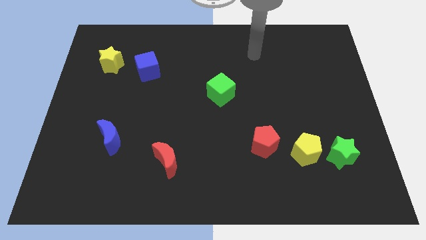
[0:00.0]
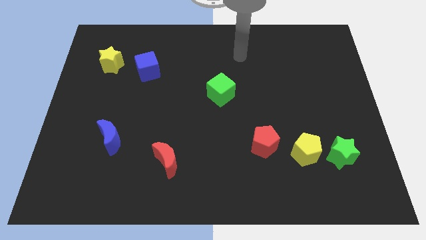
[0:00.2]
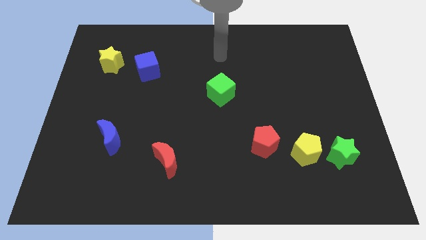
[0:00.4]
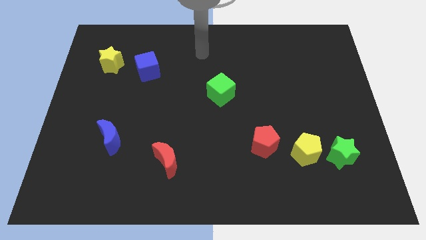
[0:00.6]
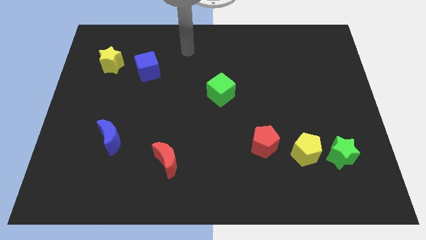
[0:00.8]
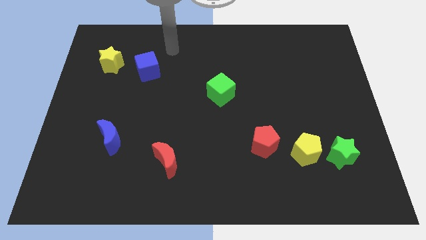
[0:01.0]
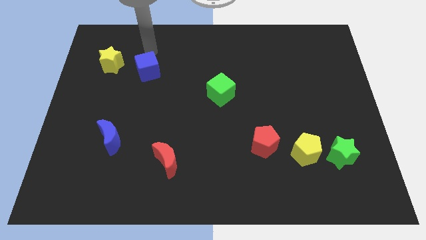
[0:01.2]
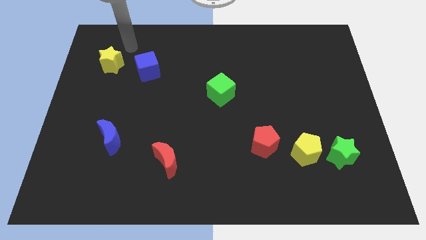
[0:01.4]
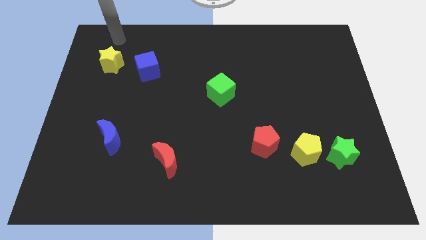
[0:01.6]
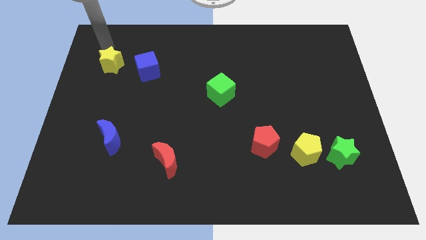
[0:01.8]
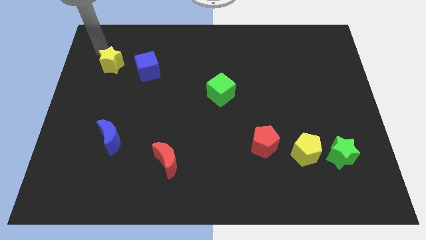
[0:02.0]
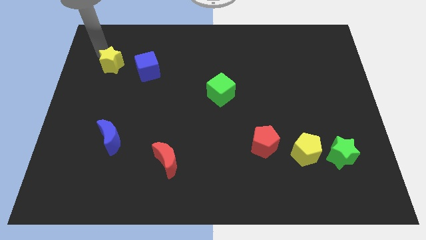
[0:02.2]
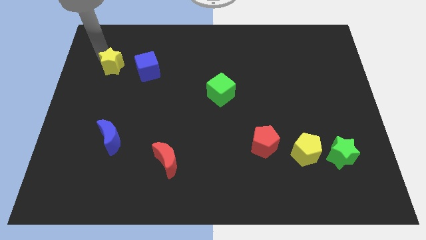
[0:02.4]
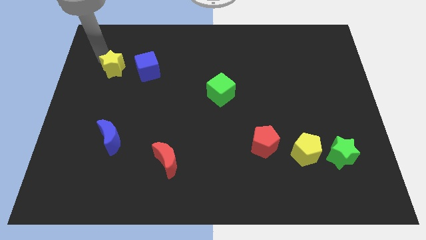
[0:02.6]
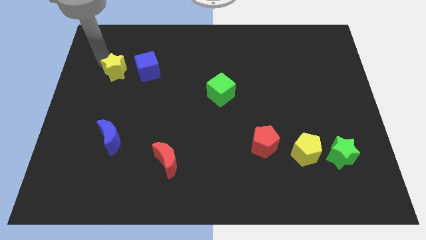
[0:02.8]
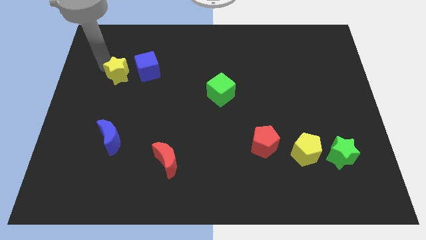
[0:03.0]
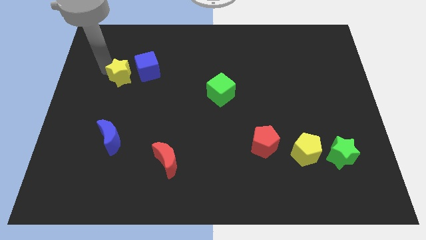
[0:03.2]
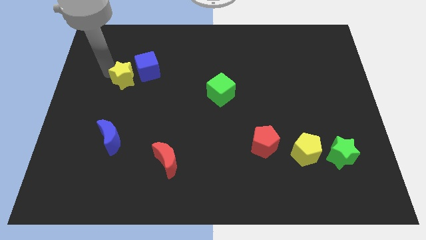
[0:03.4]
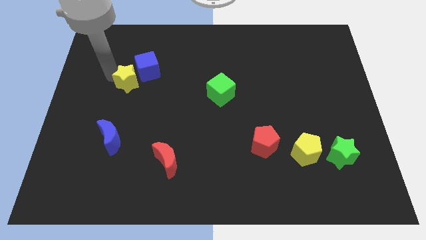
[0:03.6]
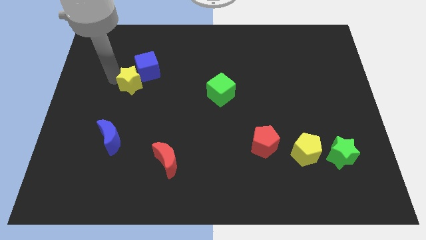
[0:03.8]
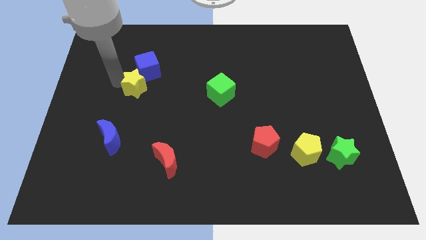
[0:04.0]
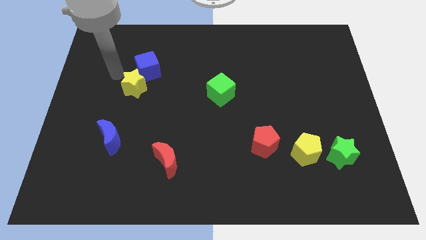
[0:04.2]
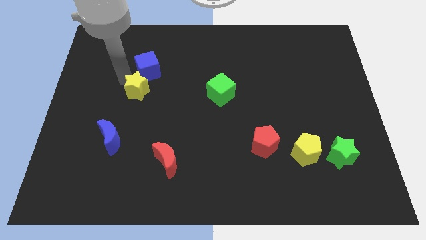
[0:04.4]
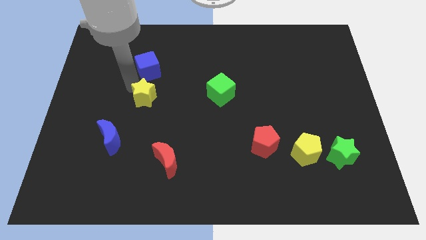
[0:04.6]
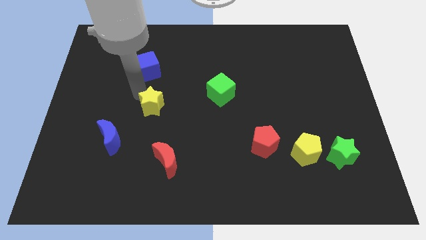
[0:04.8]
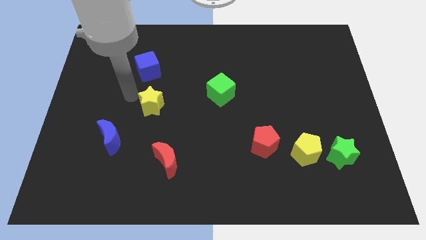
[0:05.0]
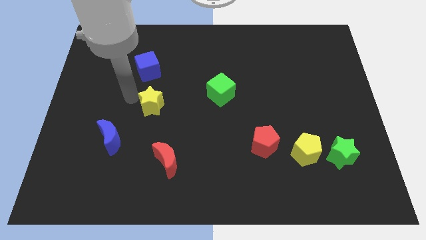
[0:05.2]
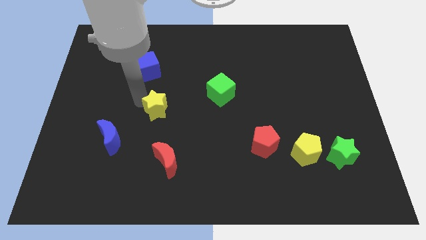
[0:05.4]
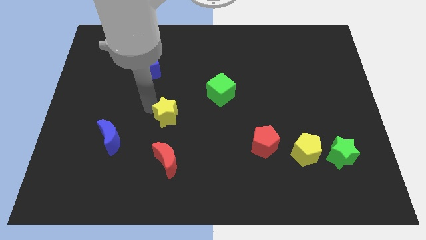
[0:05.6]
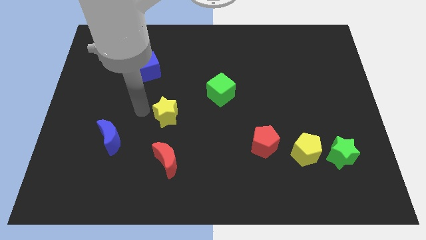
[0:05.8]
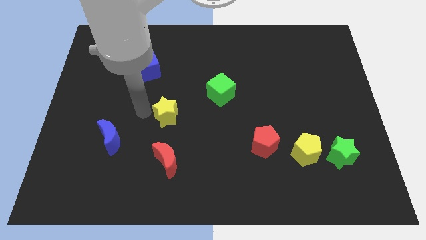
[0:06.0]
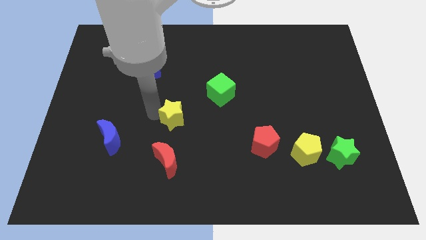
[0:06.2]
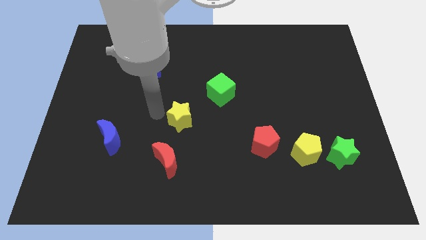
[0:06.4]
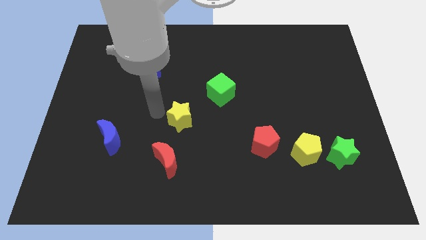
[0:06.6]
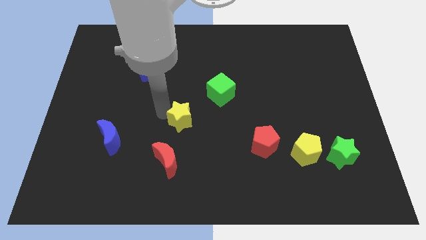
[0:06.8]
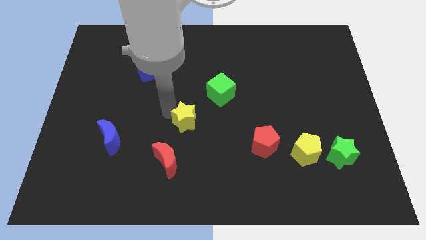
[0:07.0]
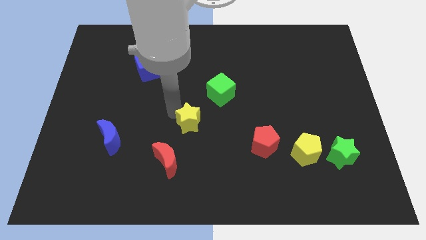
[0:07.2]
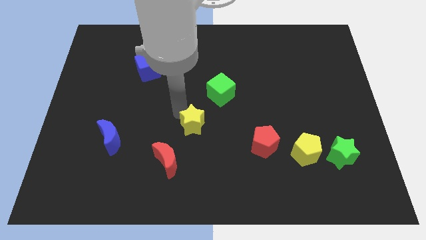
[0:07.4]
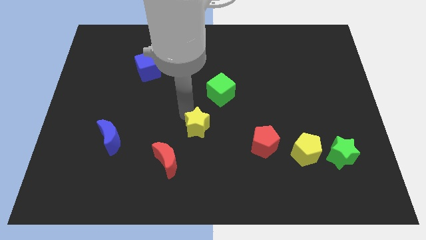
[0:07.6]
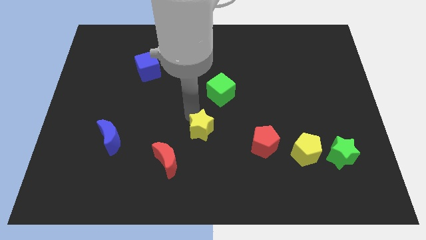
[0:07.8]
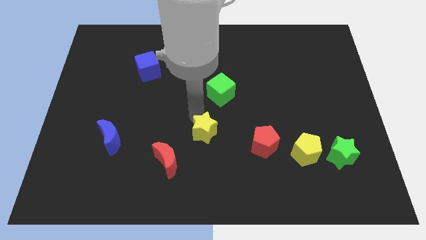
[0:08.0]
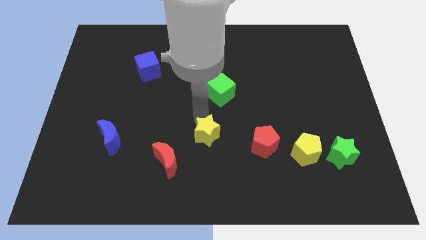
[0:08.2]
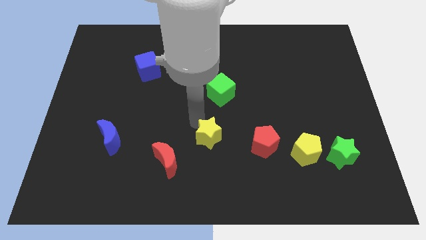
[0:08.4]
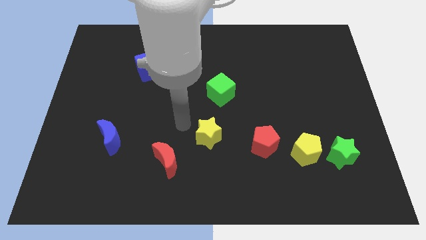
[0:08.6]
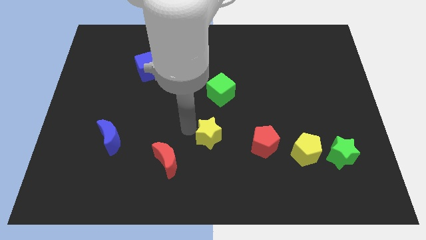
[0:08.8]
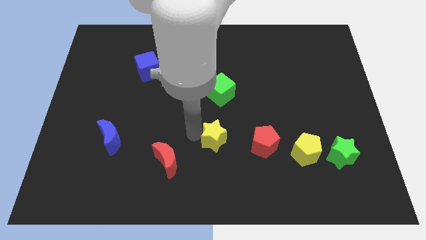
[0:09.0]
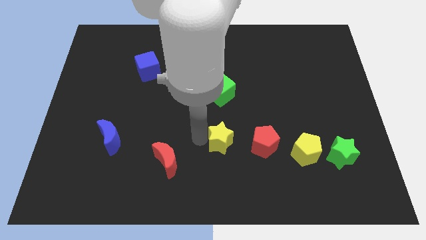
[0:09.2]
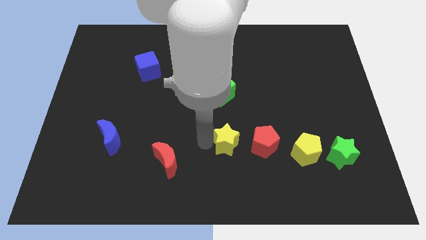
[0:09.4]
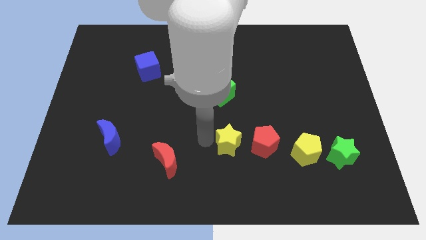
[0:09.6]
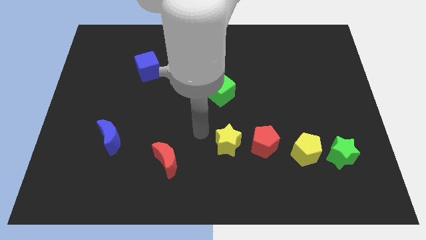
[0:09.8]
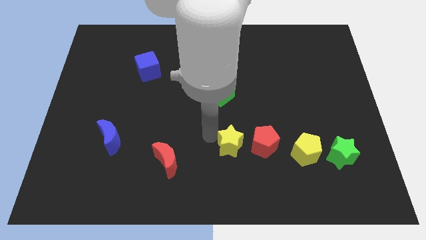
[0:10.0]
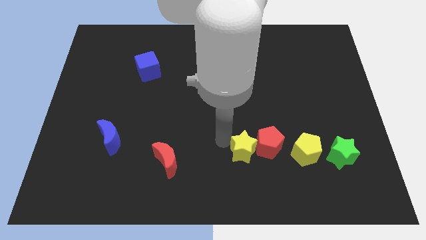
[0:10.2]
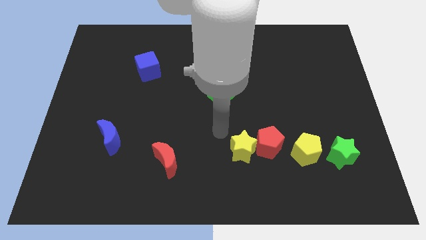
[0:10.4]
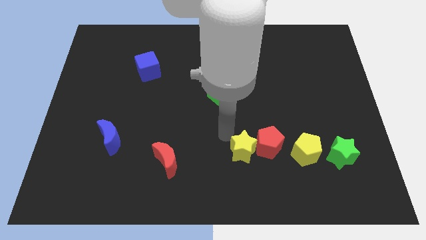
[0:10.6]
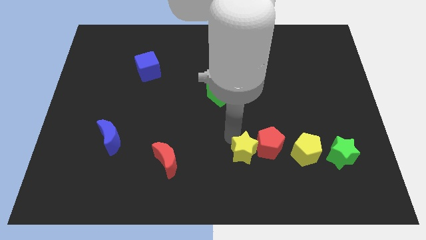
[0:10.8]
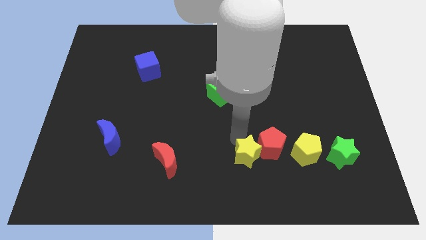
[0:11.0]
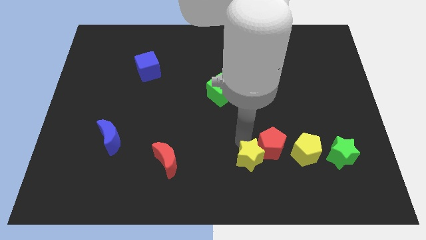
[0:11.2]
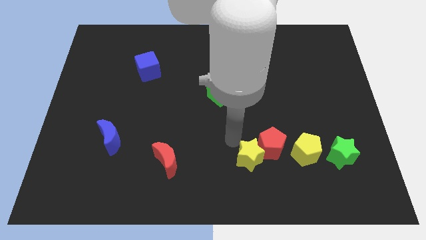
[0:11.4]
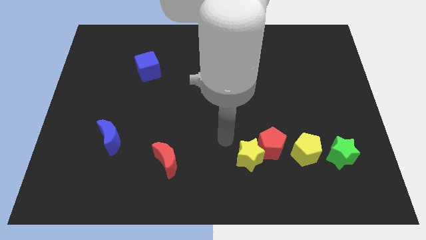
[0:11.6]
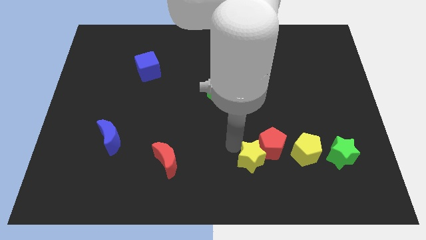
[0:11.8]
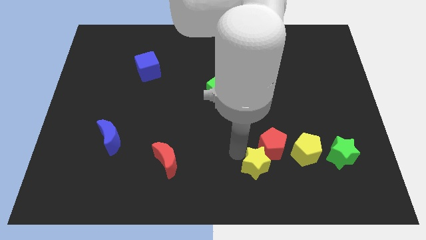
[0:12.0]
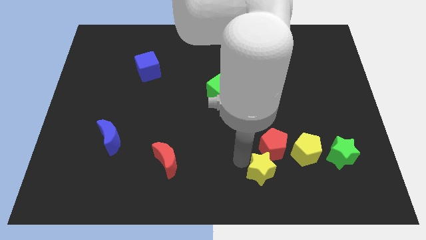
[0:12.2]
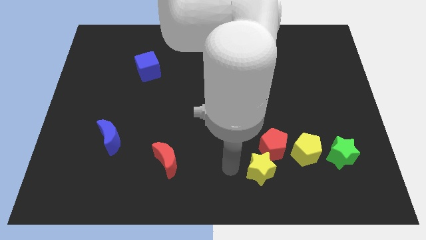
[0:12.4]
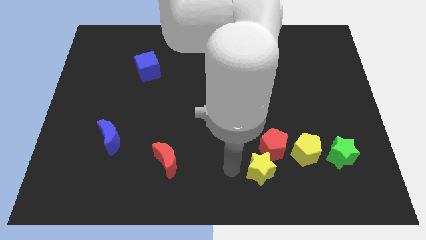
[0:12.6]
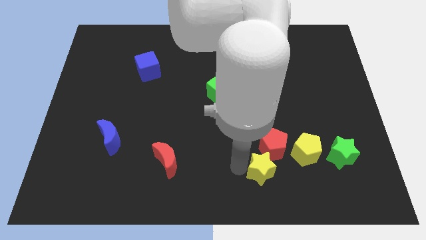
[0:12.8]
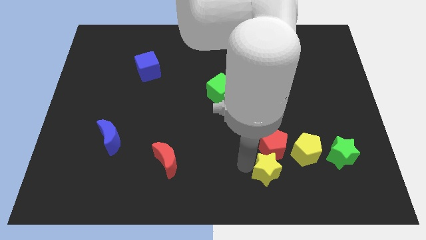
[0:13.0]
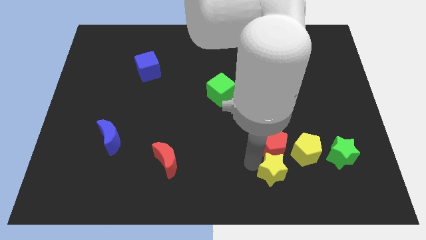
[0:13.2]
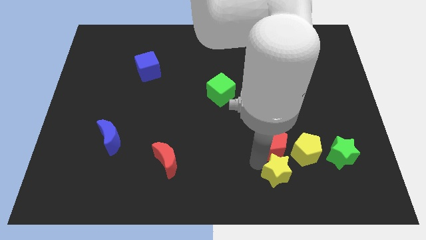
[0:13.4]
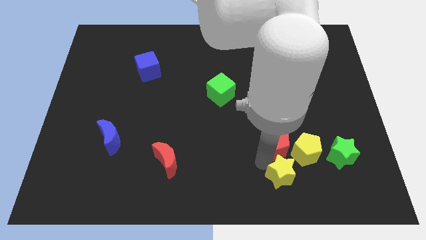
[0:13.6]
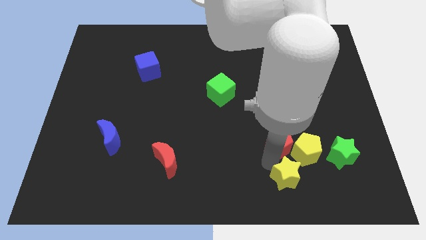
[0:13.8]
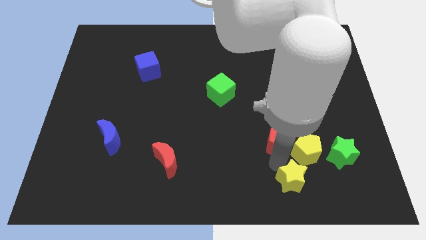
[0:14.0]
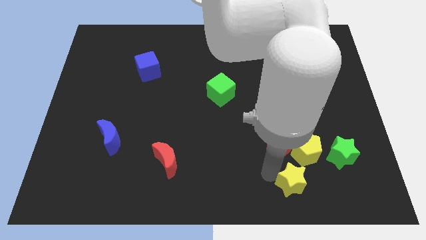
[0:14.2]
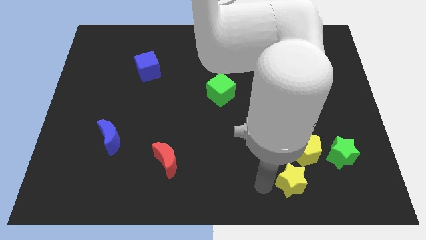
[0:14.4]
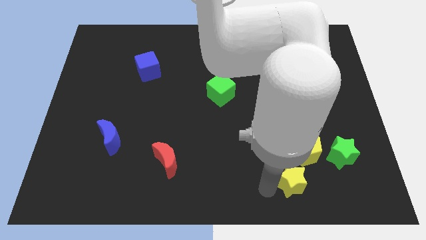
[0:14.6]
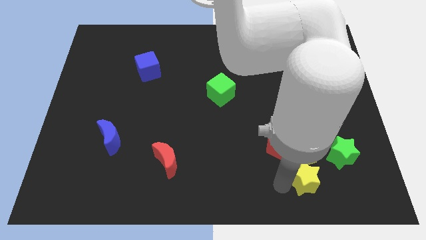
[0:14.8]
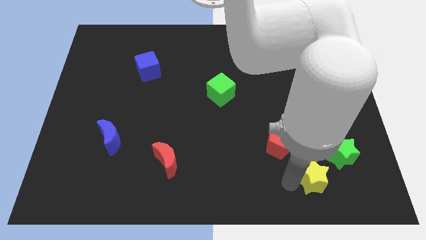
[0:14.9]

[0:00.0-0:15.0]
push the yellow star to the bottom right of the yellow pentagon
